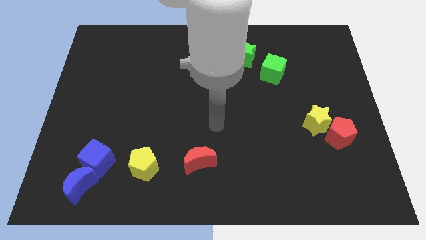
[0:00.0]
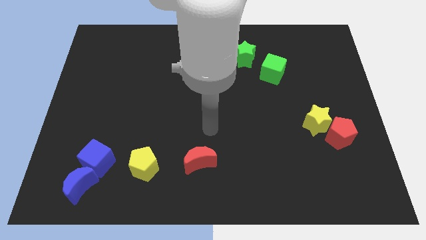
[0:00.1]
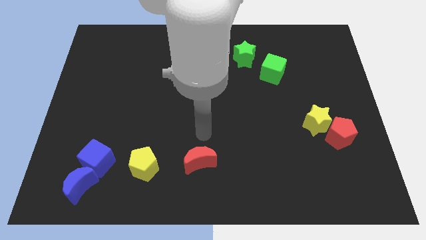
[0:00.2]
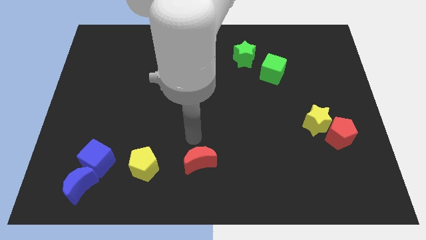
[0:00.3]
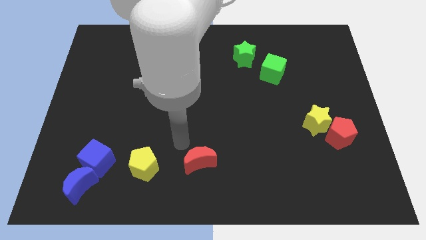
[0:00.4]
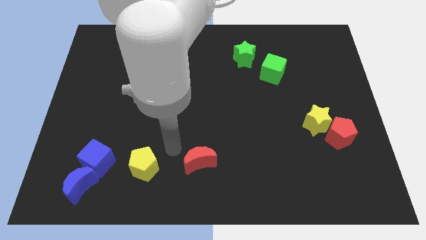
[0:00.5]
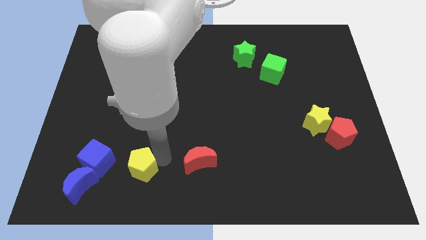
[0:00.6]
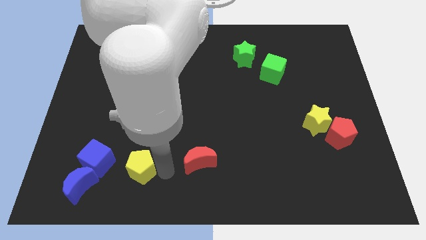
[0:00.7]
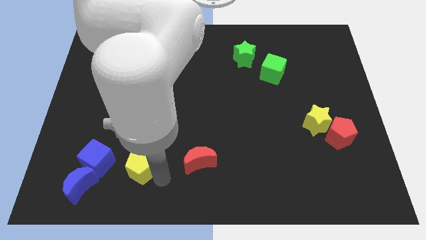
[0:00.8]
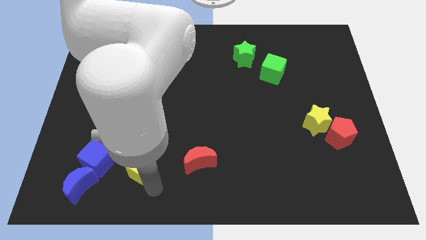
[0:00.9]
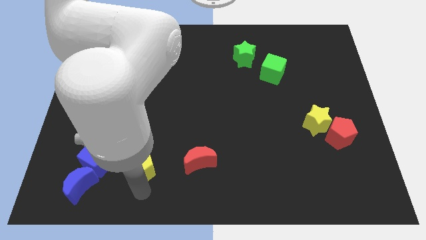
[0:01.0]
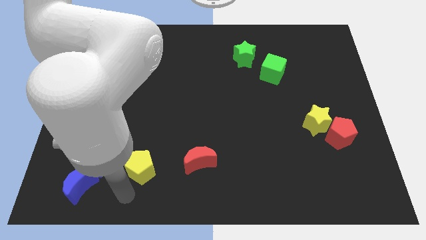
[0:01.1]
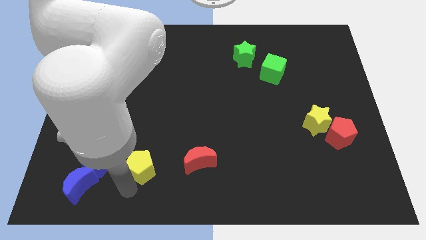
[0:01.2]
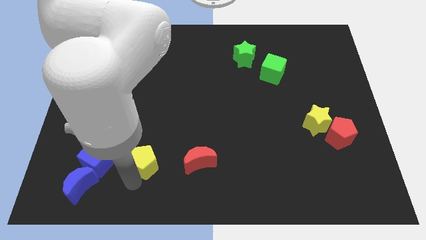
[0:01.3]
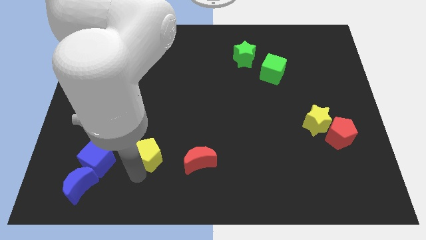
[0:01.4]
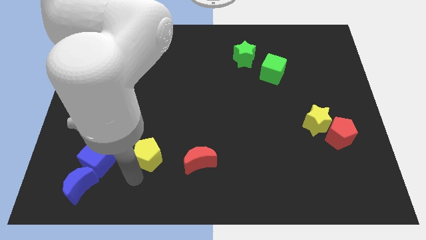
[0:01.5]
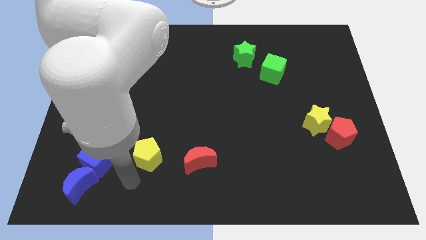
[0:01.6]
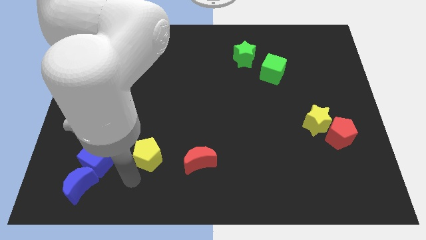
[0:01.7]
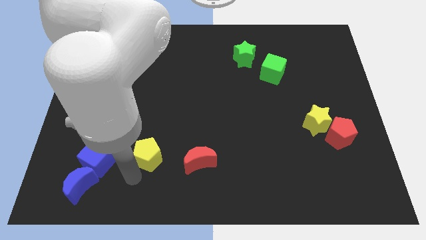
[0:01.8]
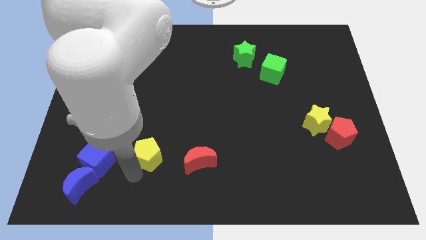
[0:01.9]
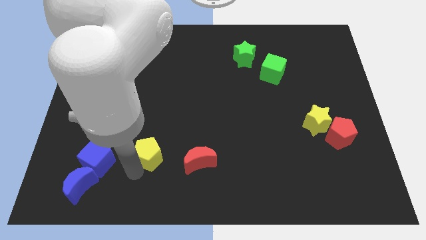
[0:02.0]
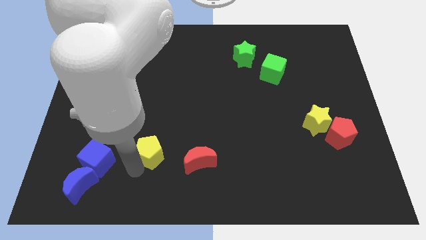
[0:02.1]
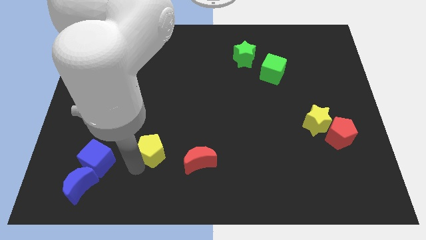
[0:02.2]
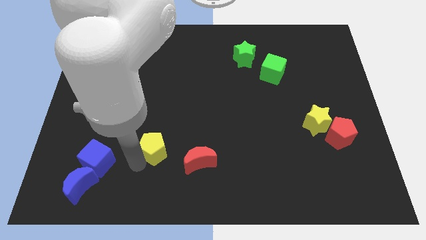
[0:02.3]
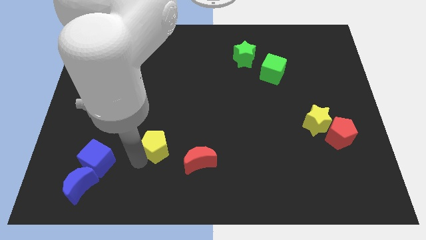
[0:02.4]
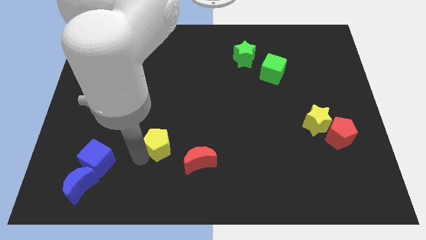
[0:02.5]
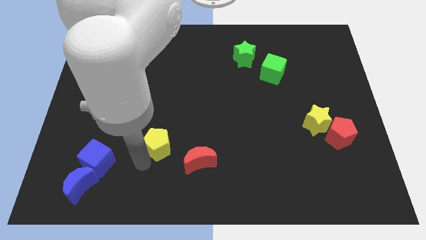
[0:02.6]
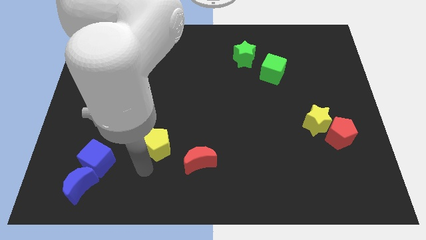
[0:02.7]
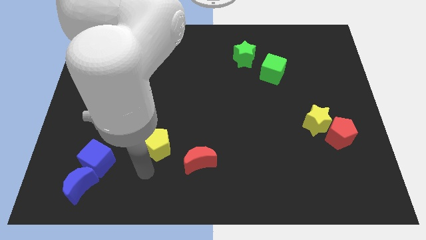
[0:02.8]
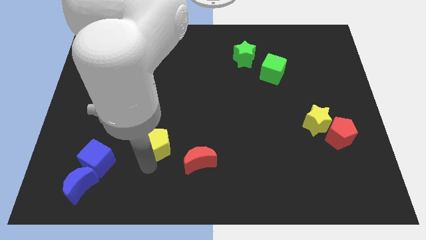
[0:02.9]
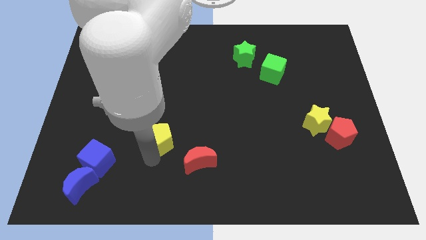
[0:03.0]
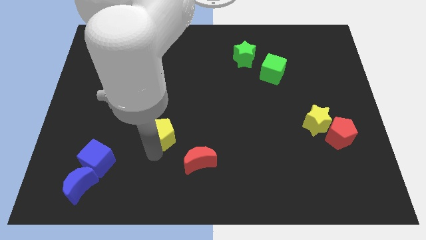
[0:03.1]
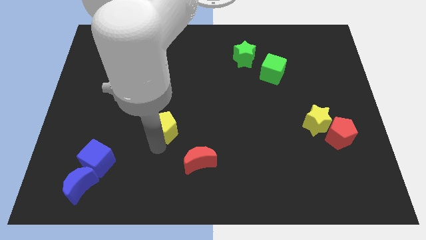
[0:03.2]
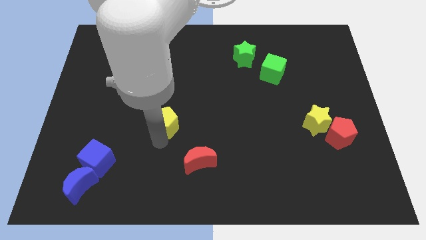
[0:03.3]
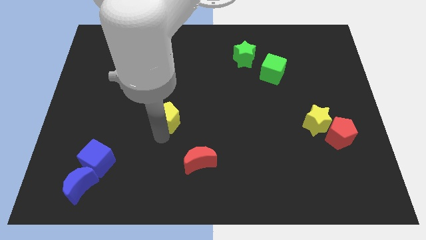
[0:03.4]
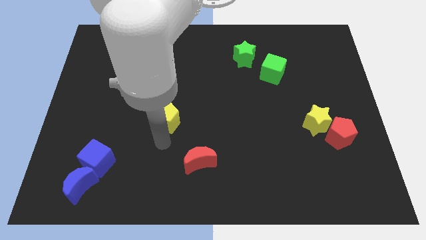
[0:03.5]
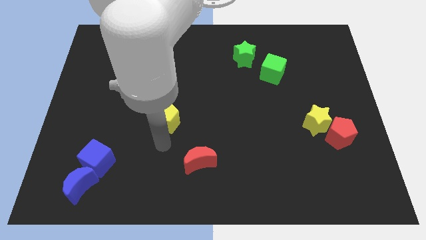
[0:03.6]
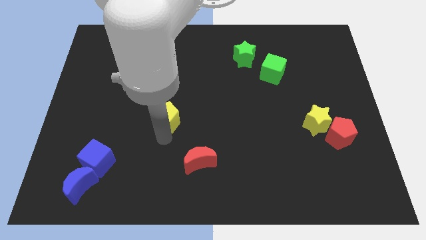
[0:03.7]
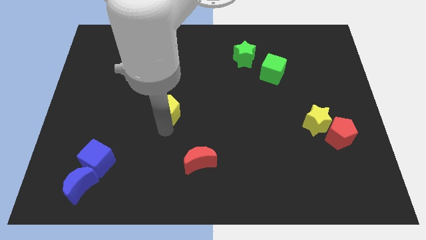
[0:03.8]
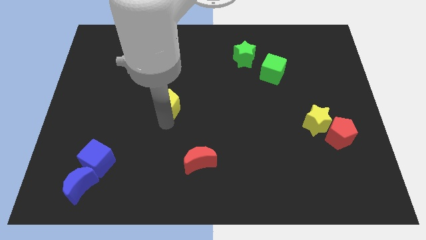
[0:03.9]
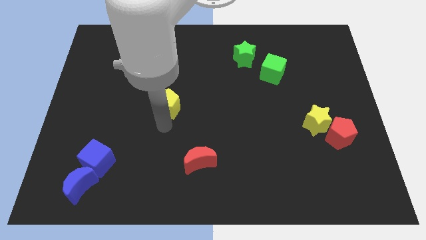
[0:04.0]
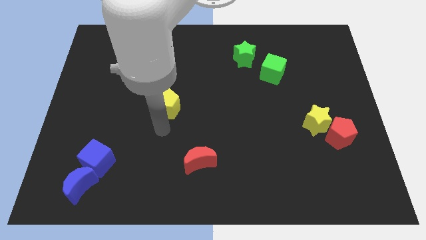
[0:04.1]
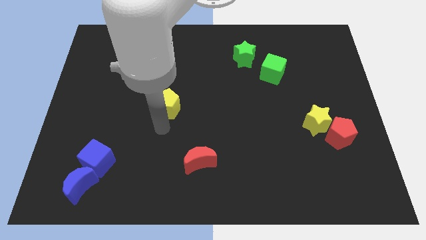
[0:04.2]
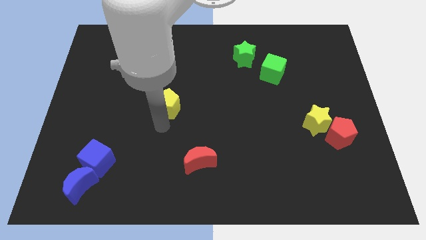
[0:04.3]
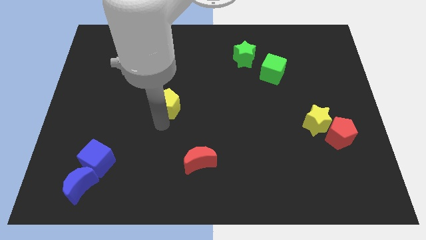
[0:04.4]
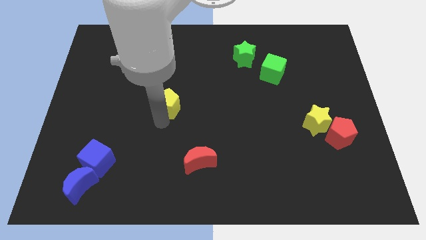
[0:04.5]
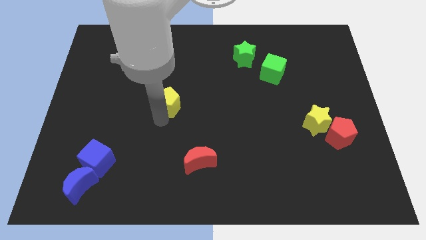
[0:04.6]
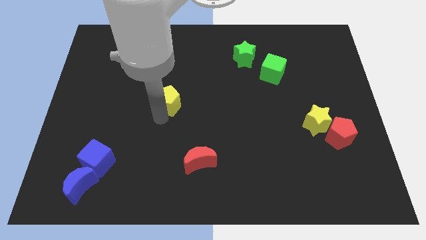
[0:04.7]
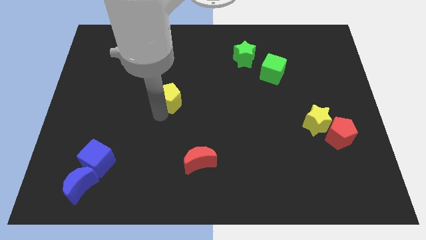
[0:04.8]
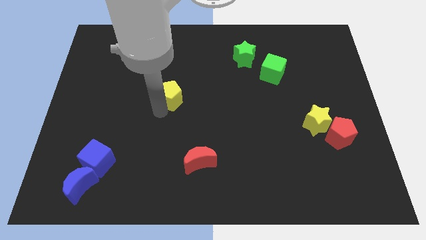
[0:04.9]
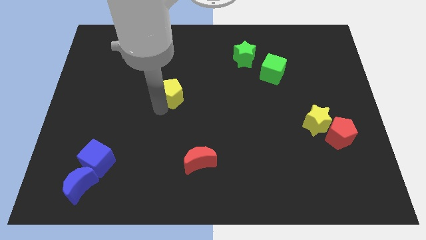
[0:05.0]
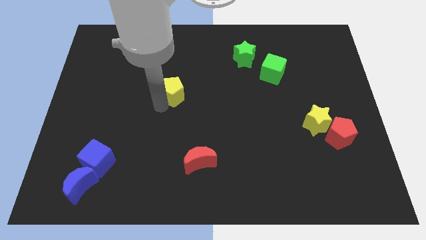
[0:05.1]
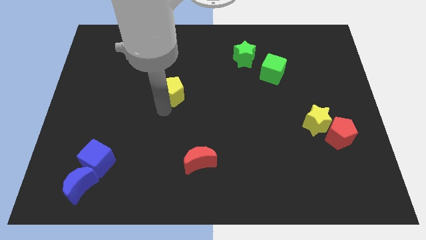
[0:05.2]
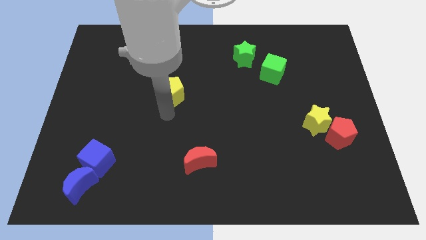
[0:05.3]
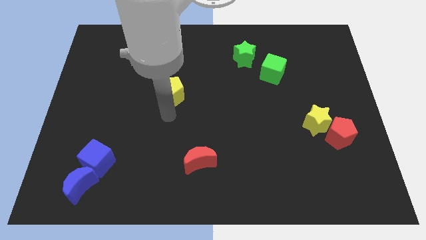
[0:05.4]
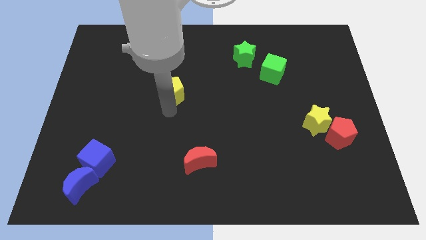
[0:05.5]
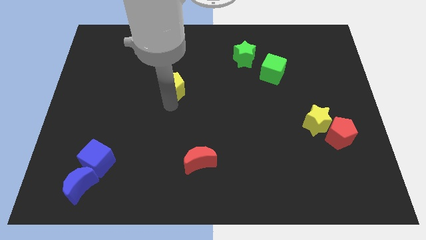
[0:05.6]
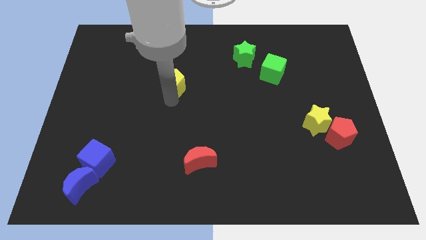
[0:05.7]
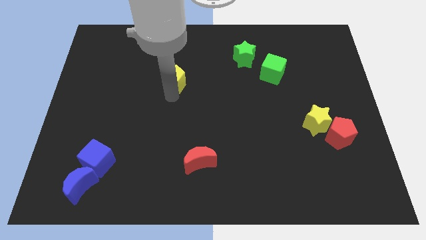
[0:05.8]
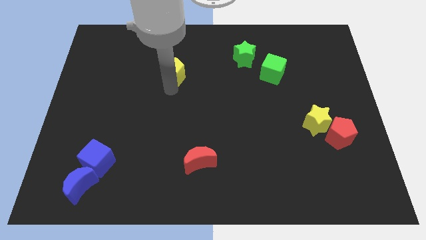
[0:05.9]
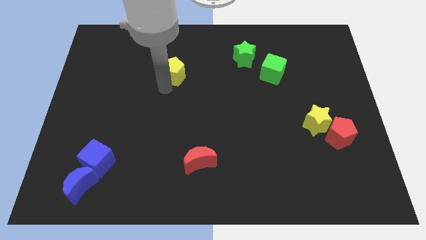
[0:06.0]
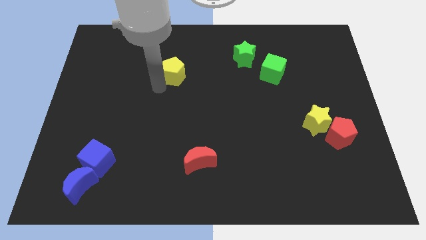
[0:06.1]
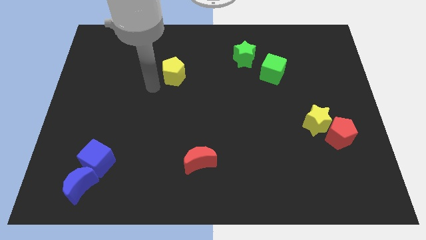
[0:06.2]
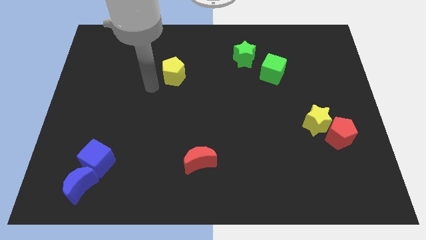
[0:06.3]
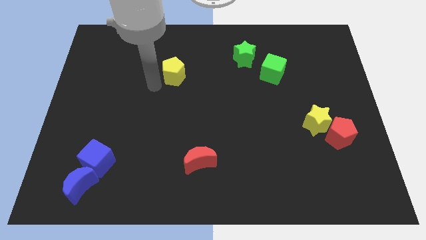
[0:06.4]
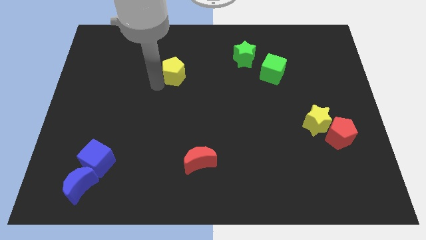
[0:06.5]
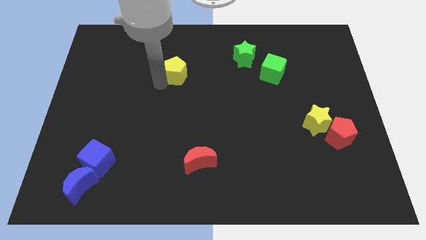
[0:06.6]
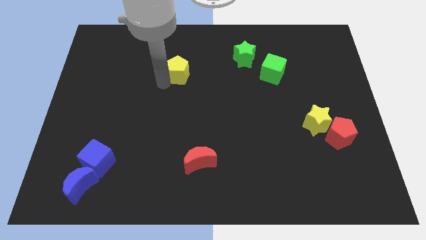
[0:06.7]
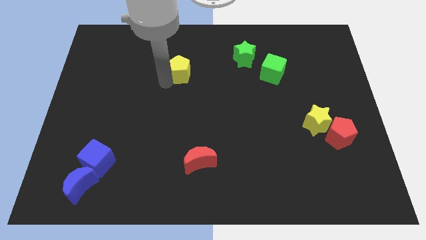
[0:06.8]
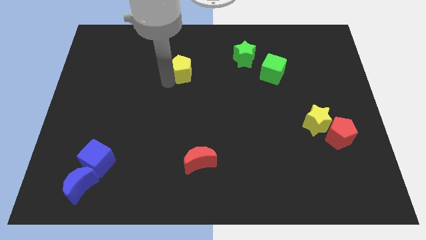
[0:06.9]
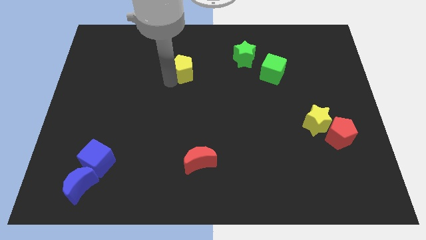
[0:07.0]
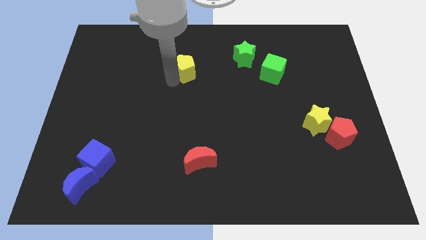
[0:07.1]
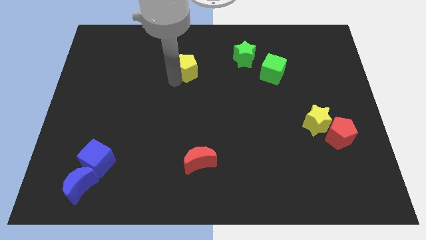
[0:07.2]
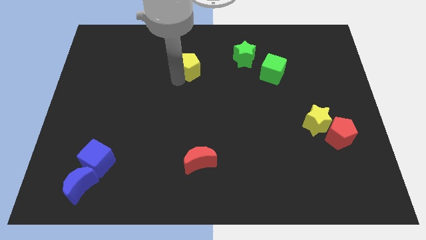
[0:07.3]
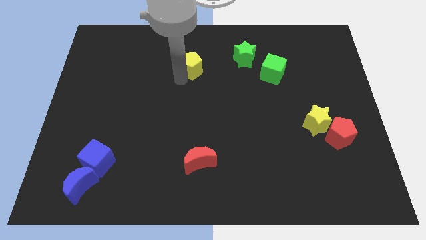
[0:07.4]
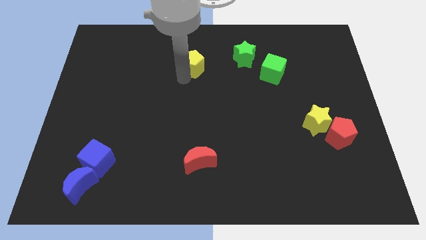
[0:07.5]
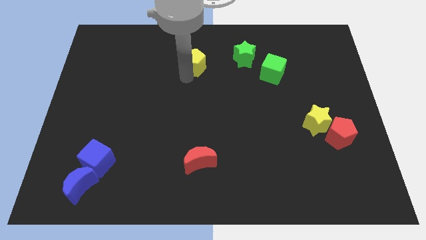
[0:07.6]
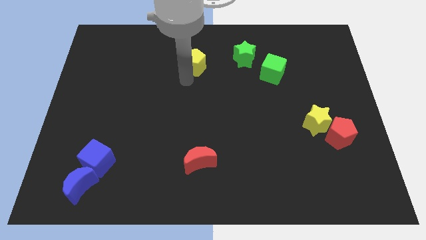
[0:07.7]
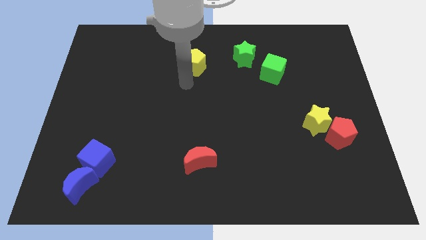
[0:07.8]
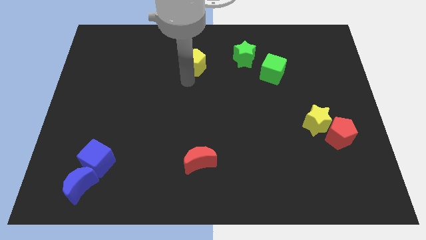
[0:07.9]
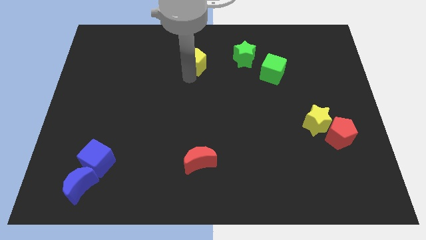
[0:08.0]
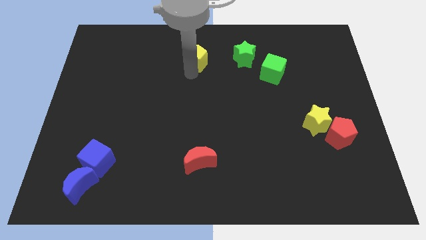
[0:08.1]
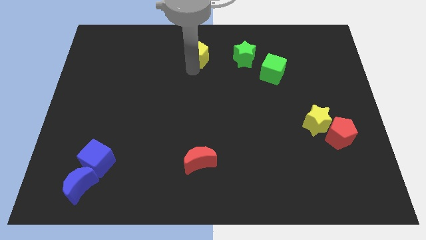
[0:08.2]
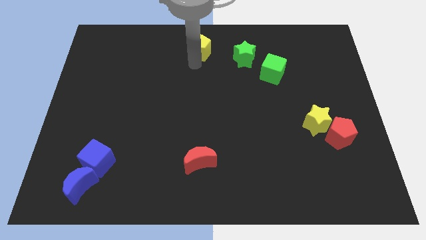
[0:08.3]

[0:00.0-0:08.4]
put the yellow pentagon to the top side
